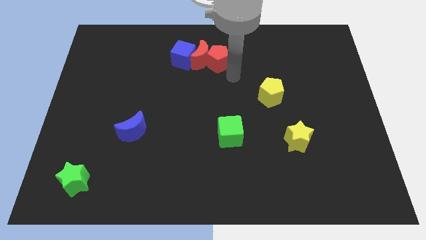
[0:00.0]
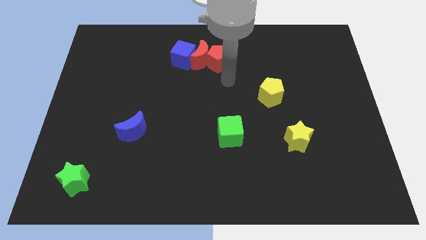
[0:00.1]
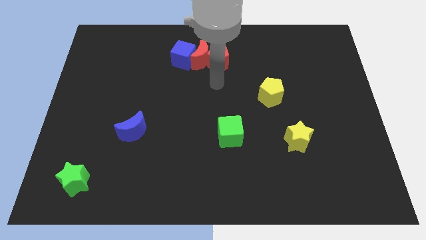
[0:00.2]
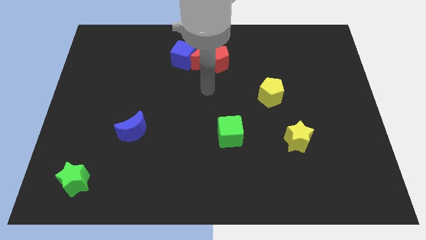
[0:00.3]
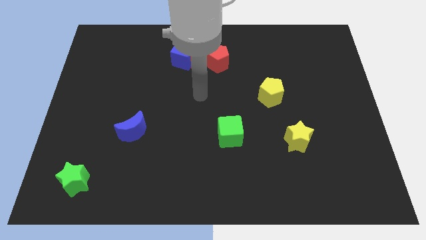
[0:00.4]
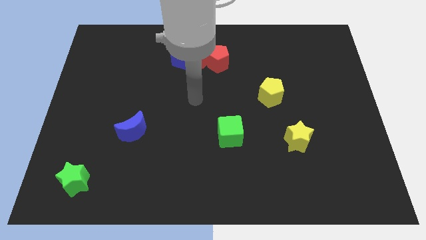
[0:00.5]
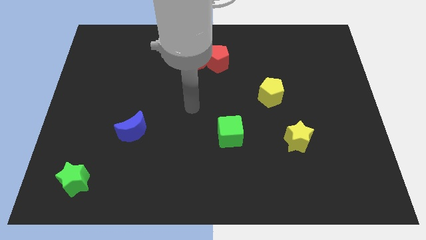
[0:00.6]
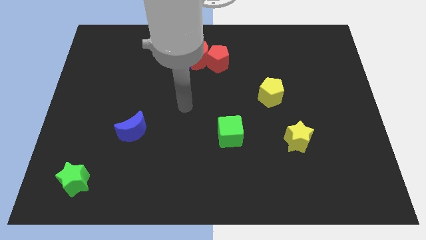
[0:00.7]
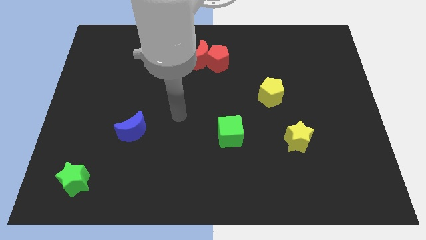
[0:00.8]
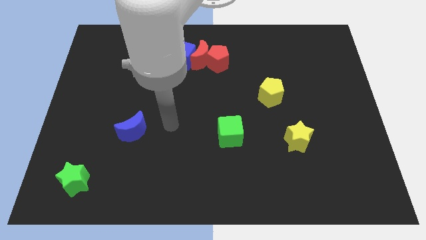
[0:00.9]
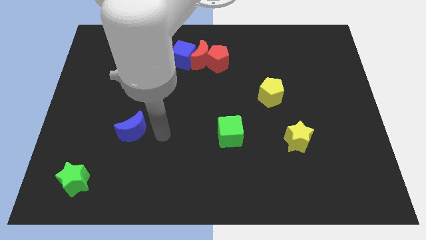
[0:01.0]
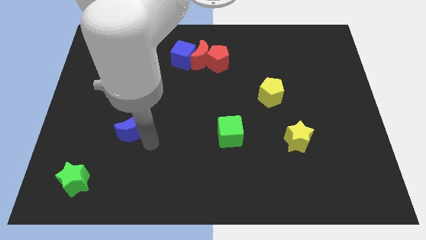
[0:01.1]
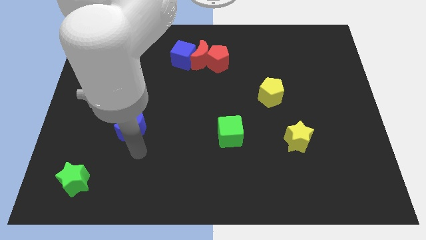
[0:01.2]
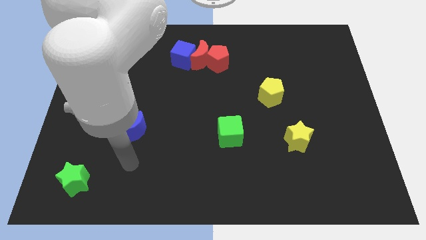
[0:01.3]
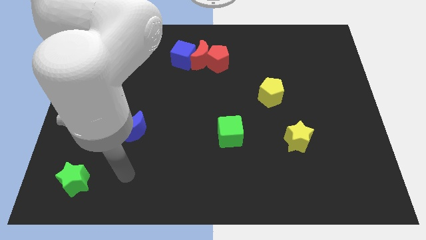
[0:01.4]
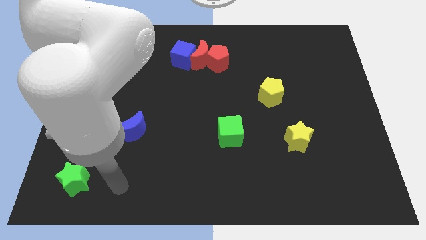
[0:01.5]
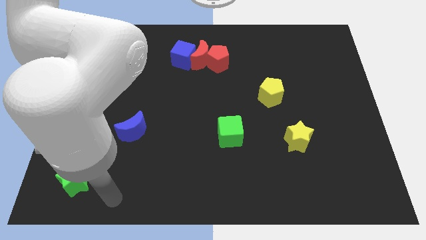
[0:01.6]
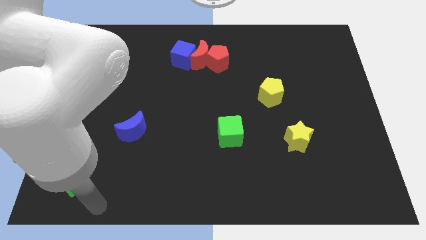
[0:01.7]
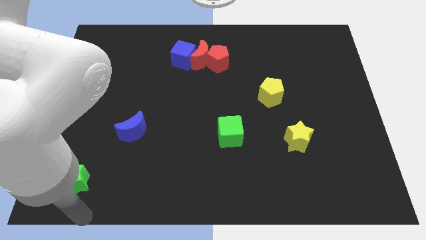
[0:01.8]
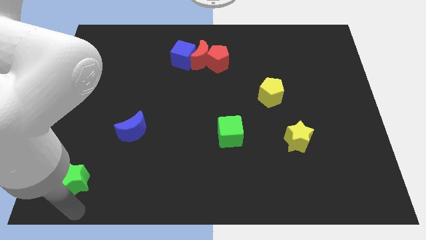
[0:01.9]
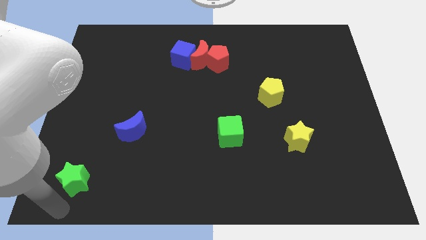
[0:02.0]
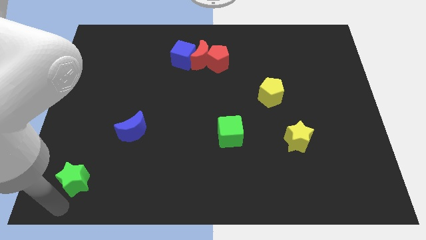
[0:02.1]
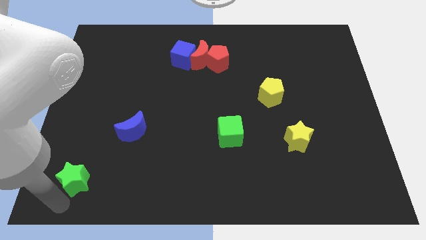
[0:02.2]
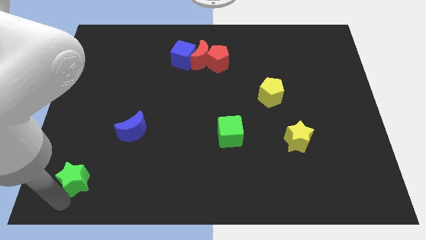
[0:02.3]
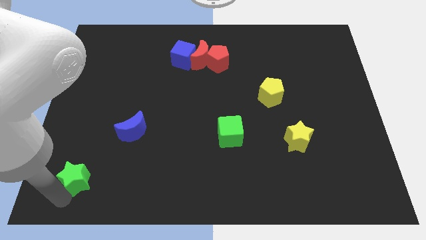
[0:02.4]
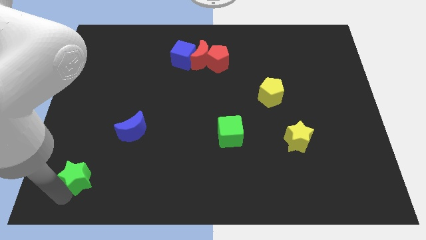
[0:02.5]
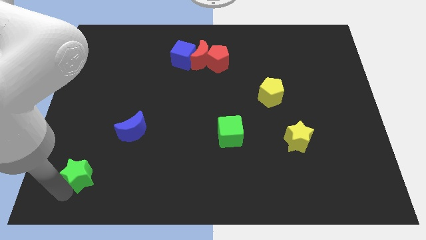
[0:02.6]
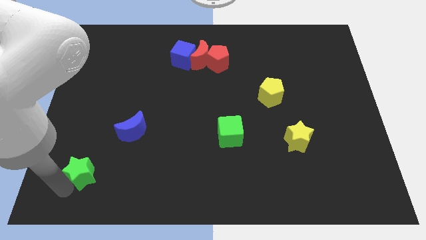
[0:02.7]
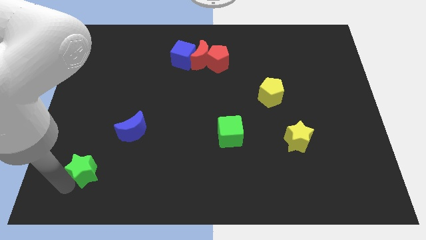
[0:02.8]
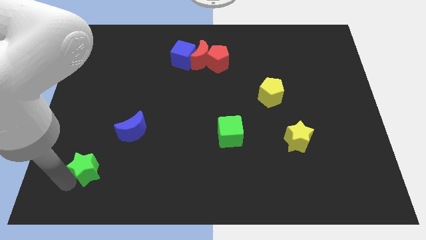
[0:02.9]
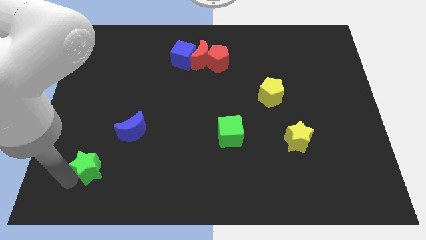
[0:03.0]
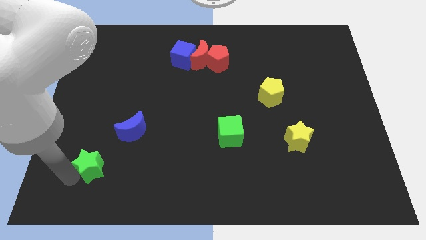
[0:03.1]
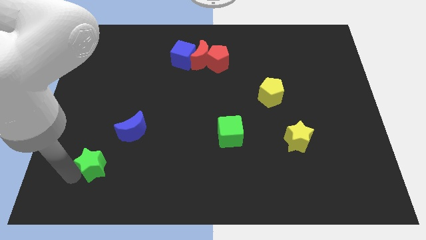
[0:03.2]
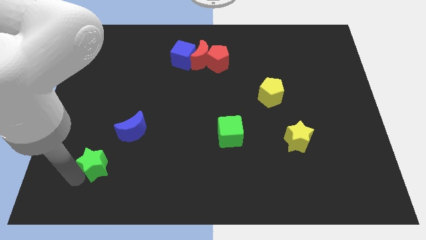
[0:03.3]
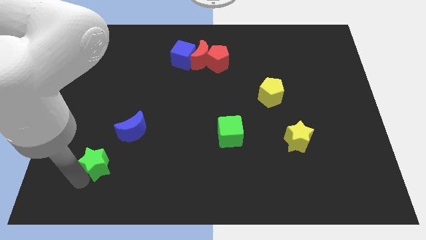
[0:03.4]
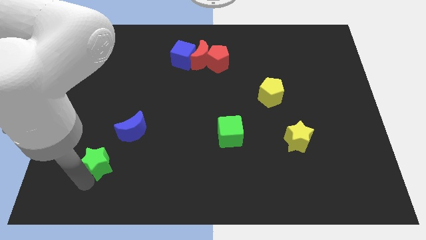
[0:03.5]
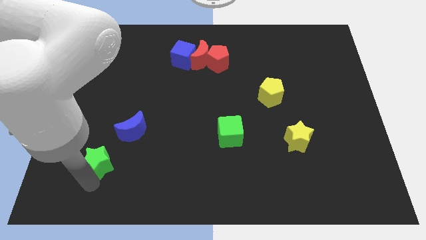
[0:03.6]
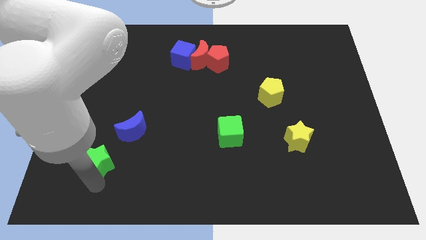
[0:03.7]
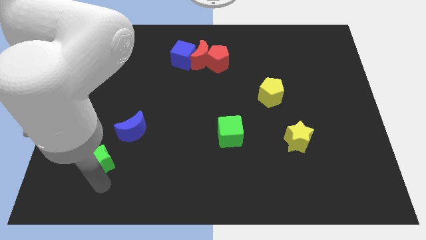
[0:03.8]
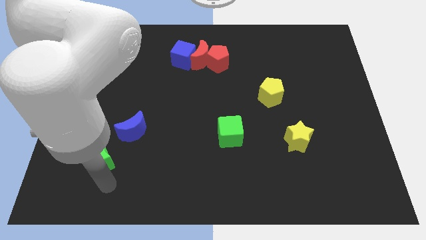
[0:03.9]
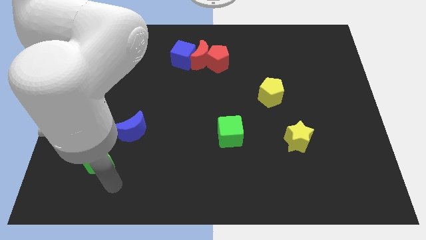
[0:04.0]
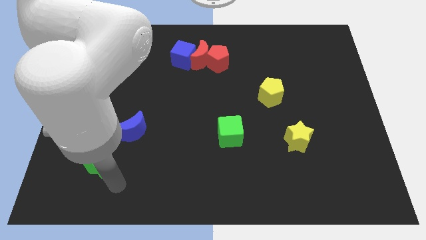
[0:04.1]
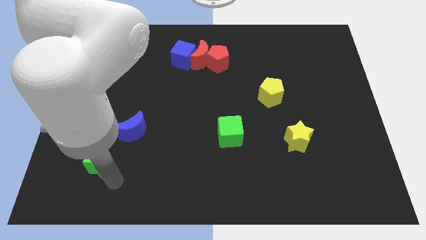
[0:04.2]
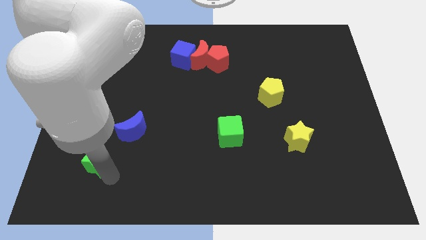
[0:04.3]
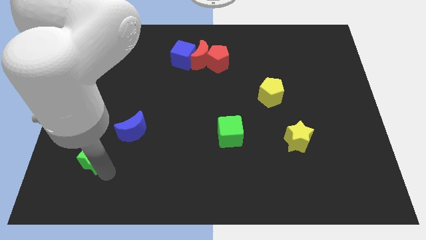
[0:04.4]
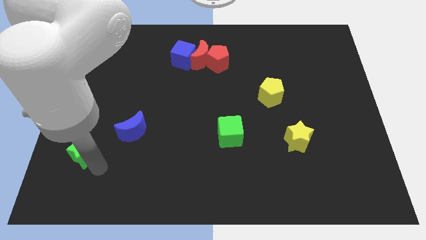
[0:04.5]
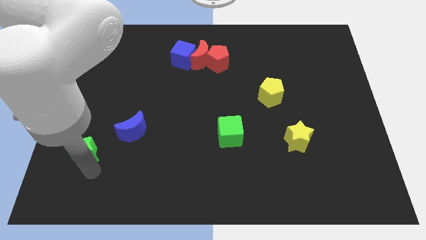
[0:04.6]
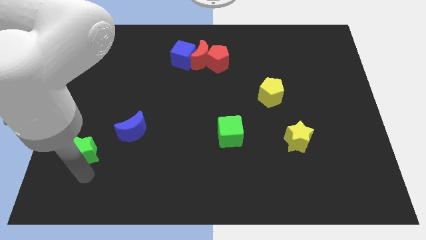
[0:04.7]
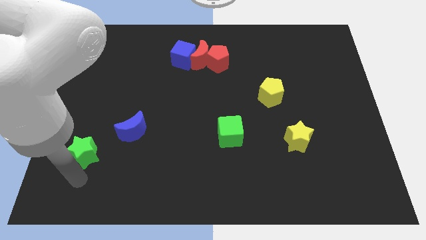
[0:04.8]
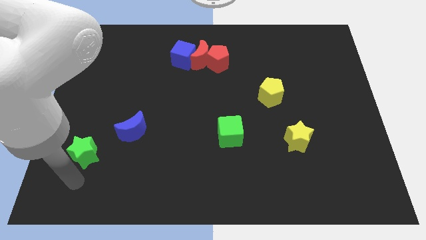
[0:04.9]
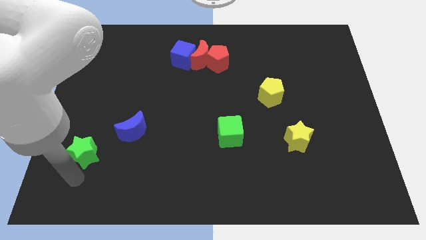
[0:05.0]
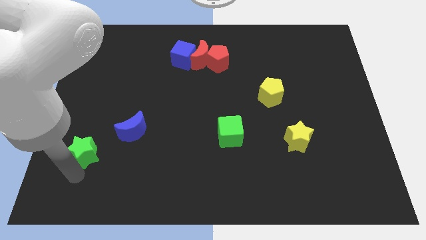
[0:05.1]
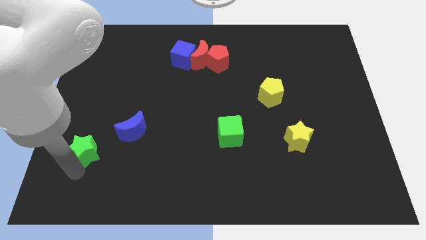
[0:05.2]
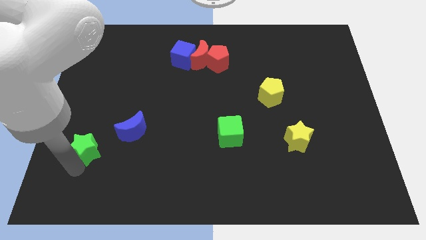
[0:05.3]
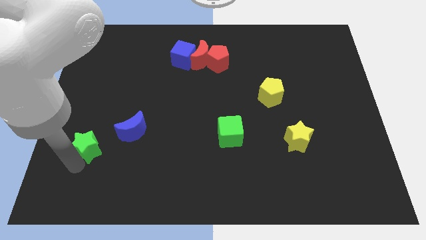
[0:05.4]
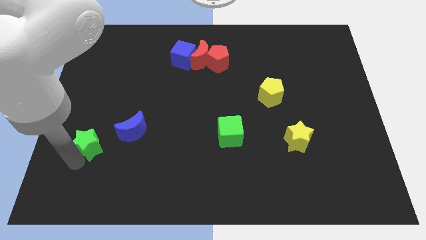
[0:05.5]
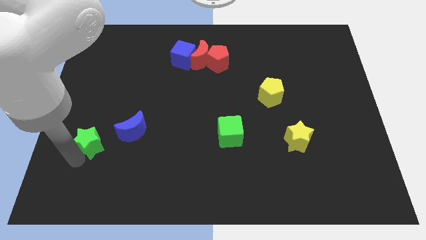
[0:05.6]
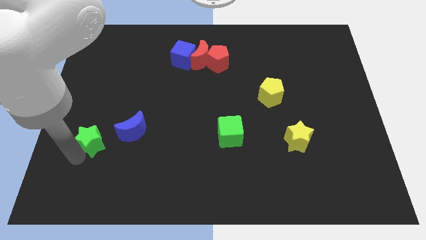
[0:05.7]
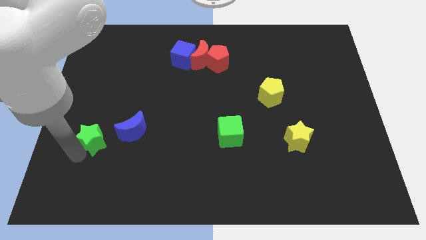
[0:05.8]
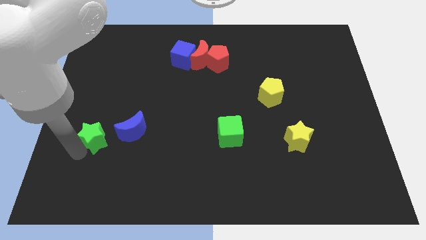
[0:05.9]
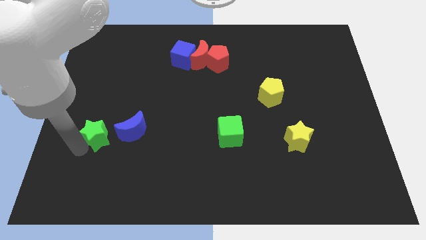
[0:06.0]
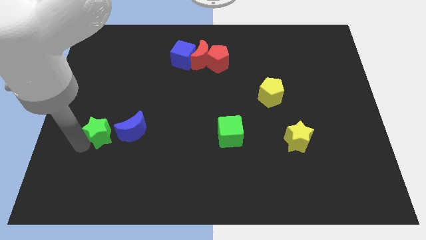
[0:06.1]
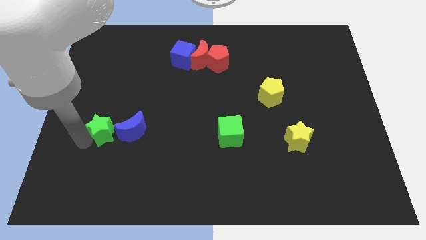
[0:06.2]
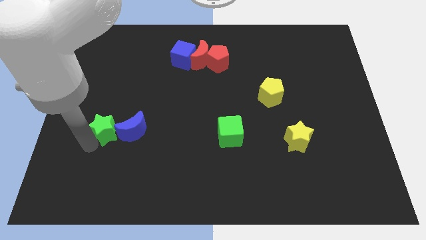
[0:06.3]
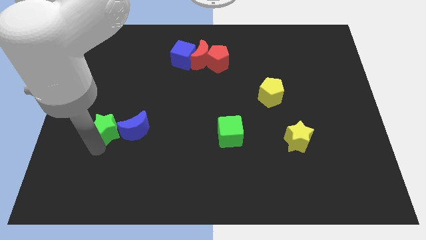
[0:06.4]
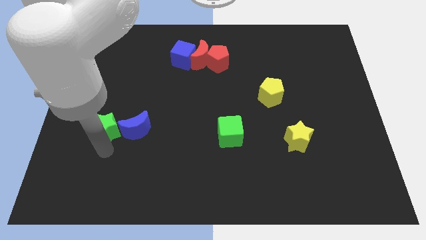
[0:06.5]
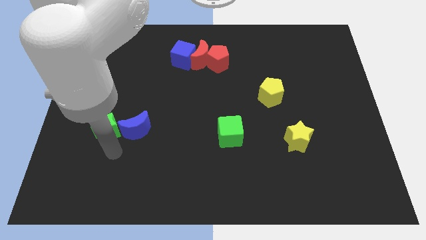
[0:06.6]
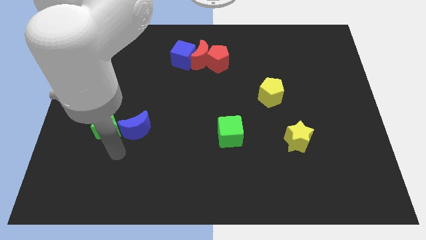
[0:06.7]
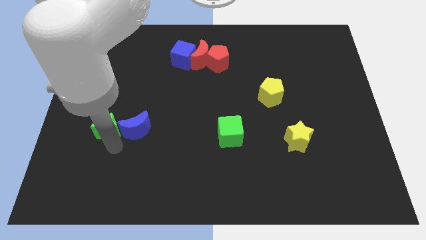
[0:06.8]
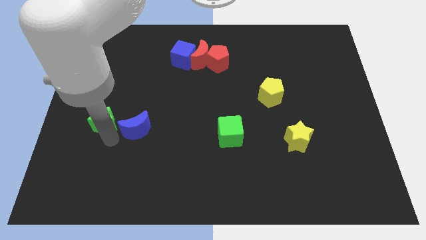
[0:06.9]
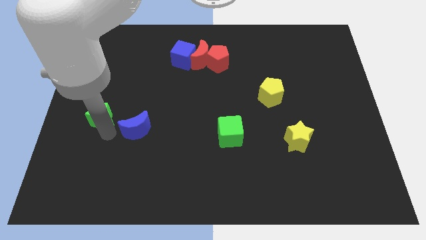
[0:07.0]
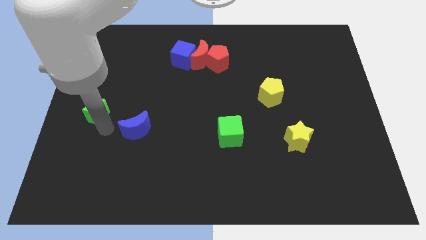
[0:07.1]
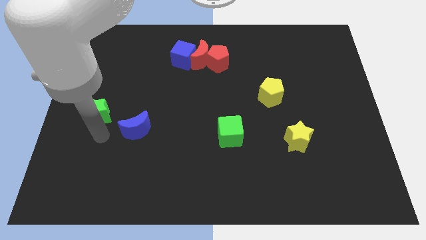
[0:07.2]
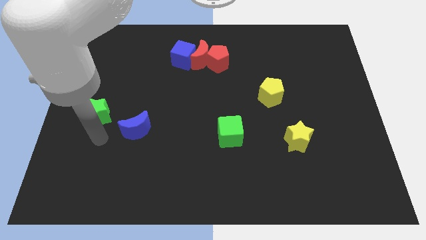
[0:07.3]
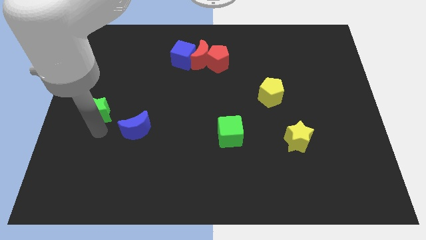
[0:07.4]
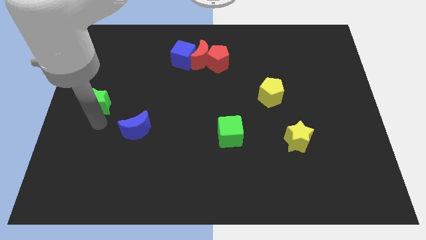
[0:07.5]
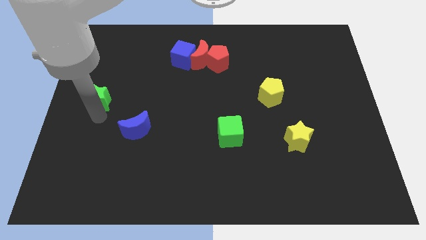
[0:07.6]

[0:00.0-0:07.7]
slide the green star up

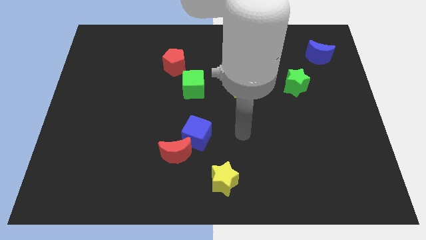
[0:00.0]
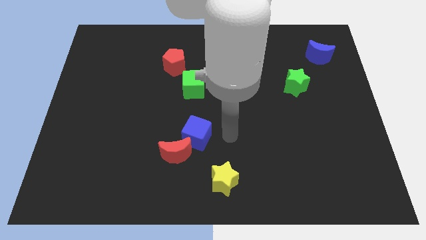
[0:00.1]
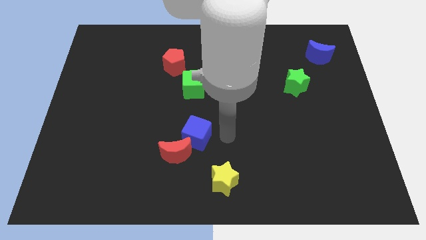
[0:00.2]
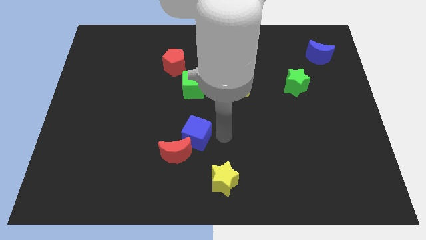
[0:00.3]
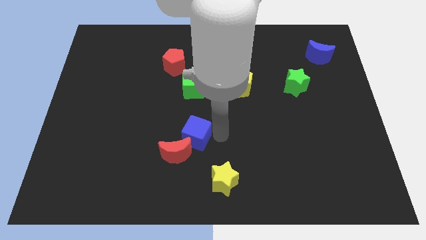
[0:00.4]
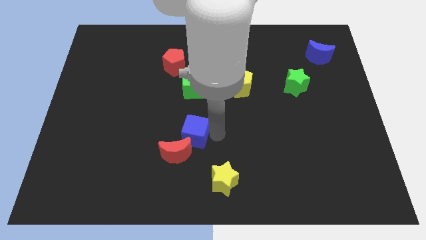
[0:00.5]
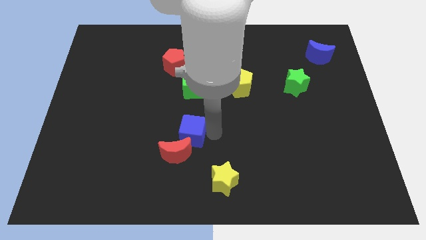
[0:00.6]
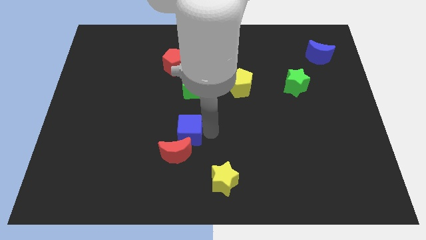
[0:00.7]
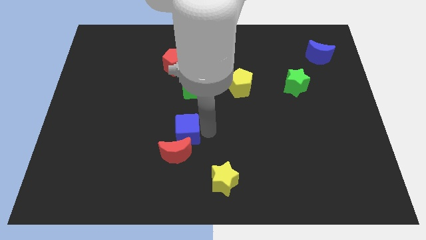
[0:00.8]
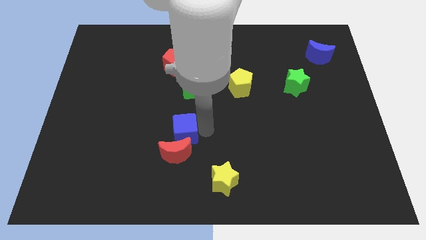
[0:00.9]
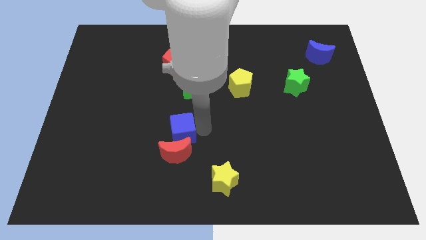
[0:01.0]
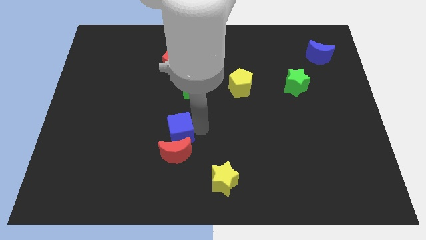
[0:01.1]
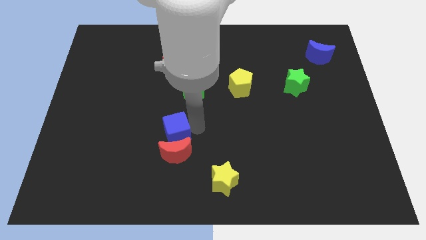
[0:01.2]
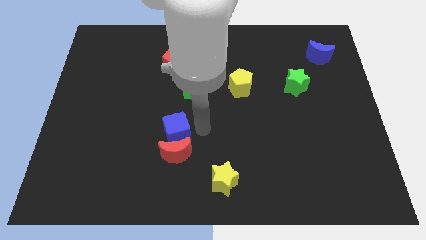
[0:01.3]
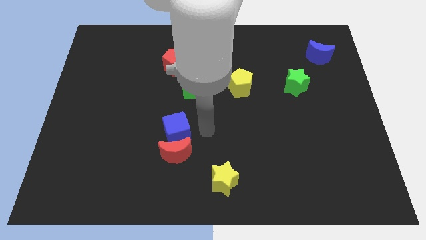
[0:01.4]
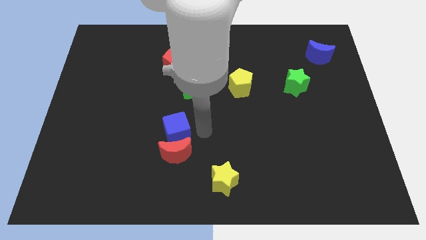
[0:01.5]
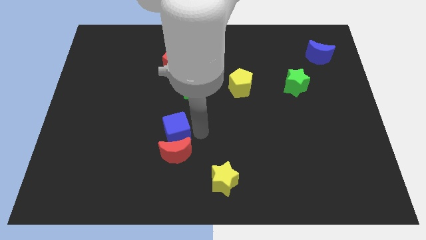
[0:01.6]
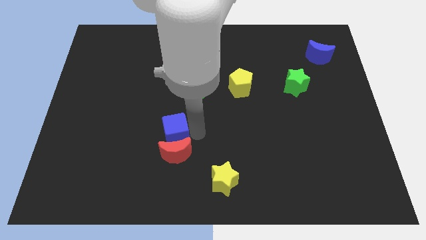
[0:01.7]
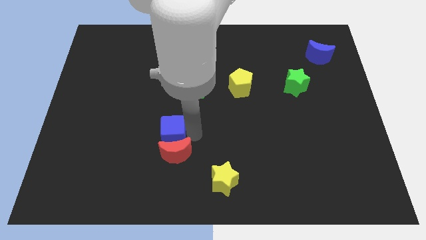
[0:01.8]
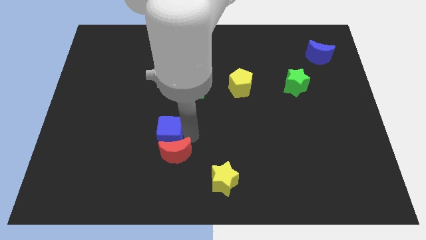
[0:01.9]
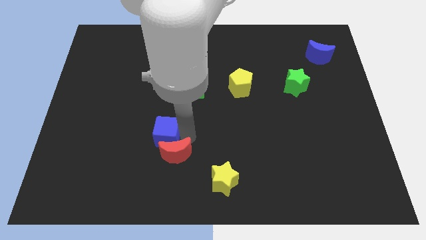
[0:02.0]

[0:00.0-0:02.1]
slightly slide the blue cube to the left
